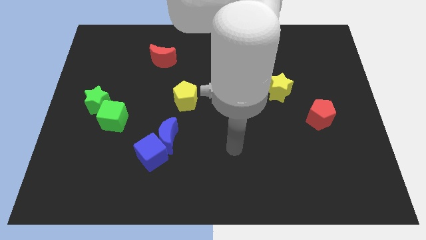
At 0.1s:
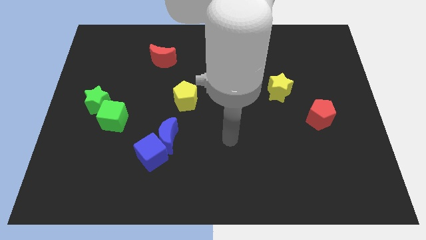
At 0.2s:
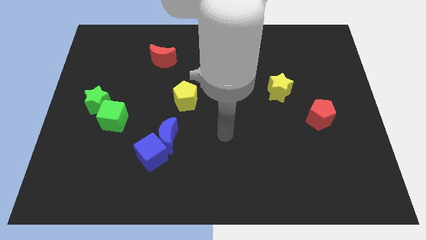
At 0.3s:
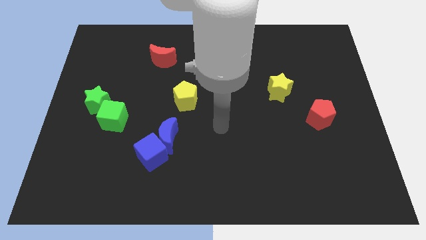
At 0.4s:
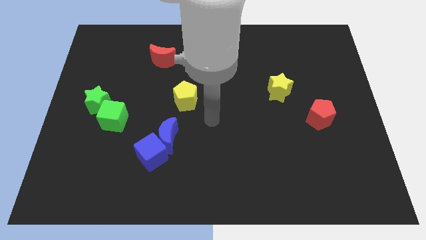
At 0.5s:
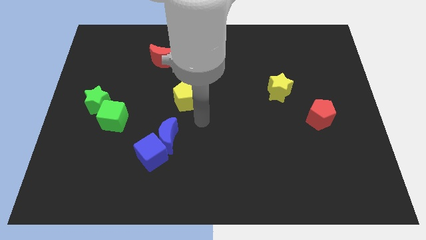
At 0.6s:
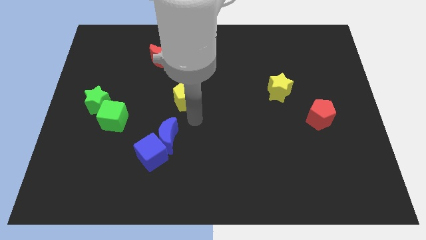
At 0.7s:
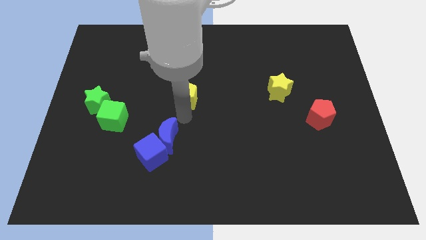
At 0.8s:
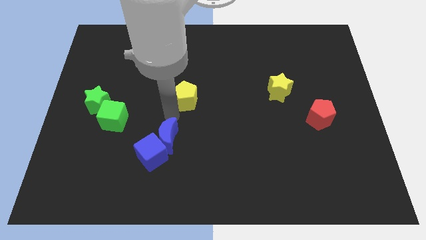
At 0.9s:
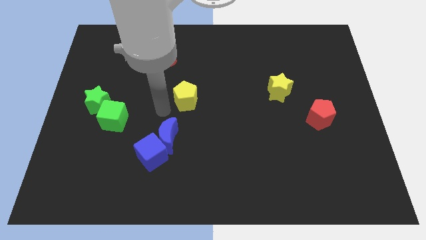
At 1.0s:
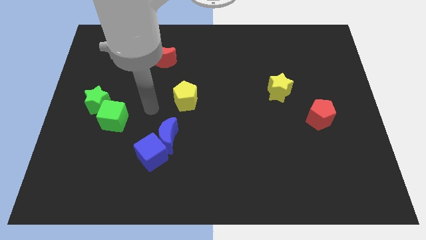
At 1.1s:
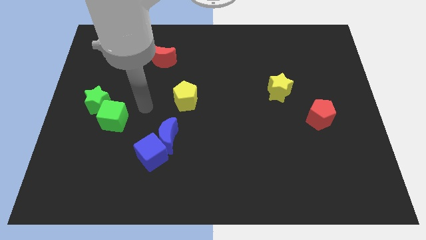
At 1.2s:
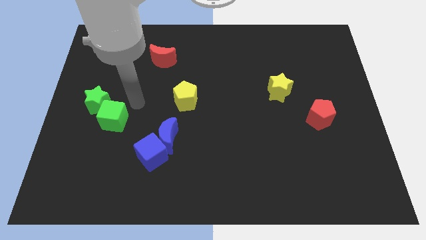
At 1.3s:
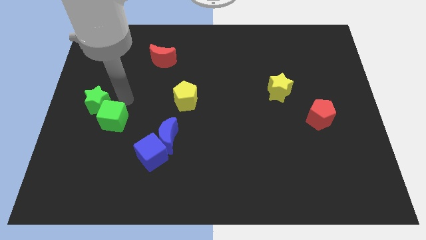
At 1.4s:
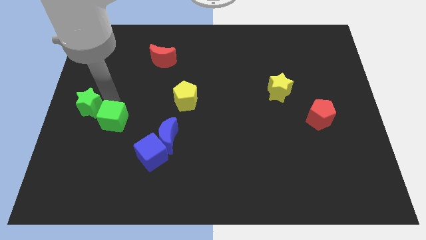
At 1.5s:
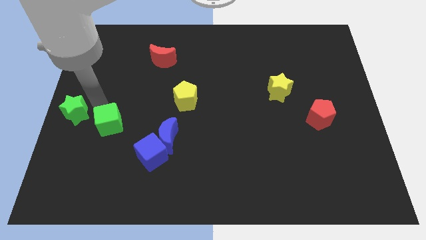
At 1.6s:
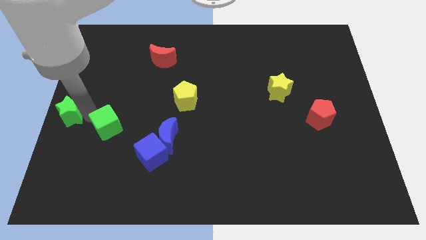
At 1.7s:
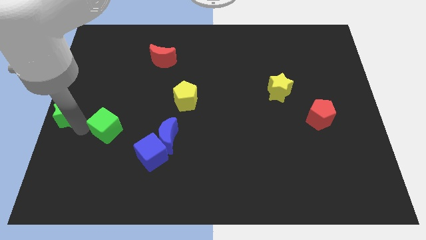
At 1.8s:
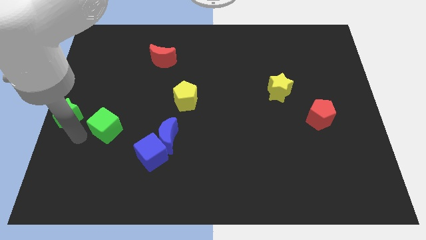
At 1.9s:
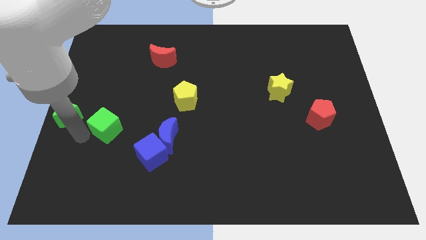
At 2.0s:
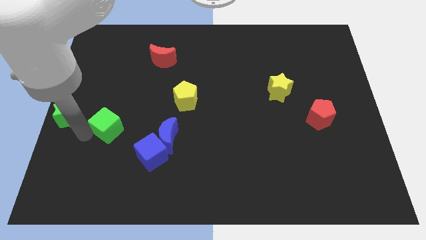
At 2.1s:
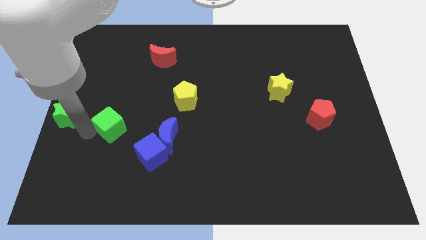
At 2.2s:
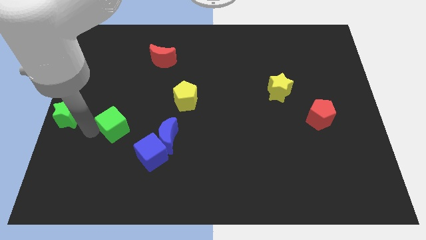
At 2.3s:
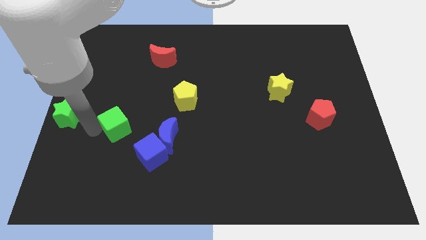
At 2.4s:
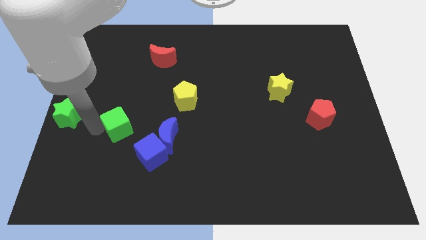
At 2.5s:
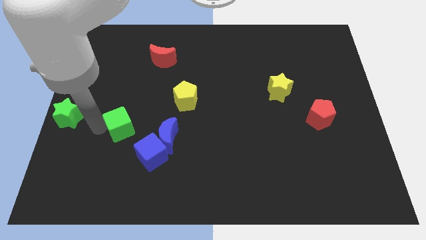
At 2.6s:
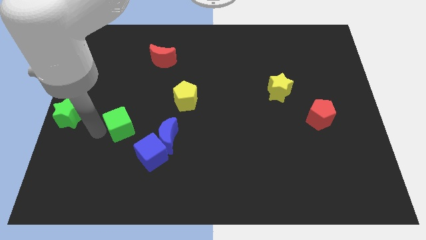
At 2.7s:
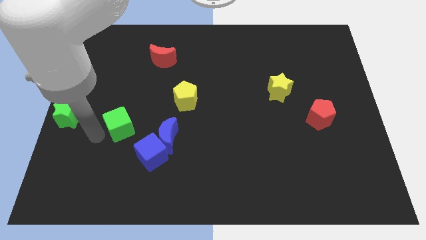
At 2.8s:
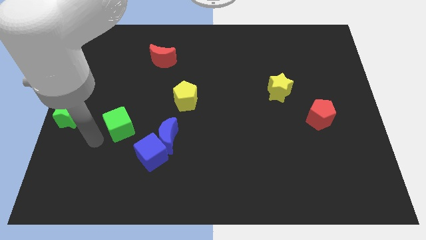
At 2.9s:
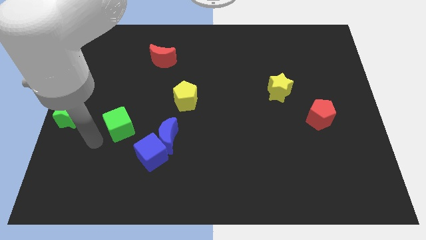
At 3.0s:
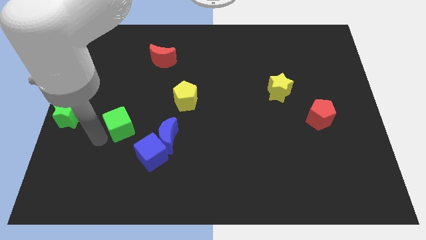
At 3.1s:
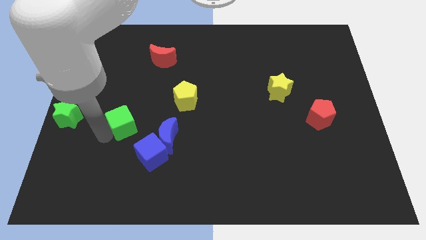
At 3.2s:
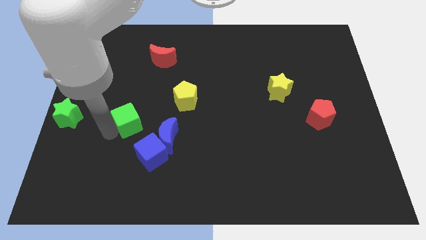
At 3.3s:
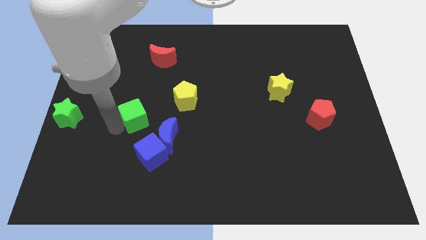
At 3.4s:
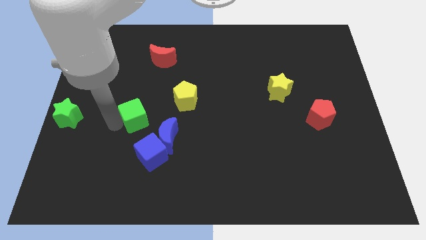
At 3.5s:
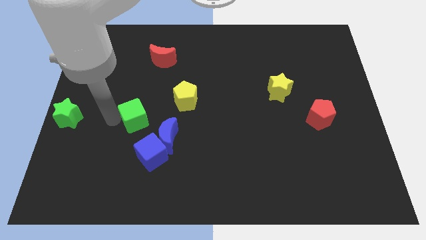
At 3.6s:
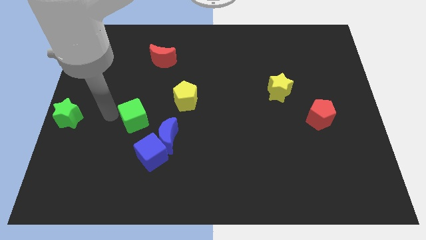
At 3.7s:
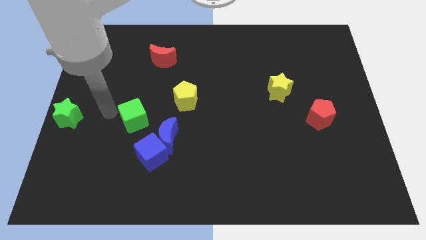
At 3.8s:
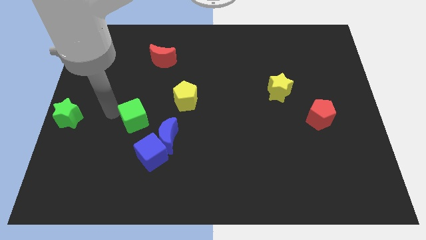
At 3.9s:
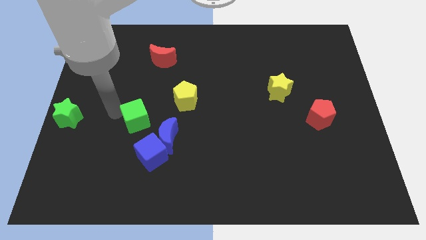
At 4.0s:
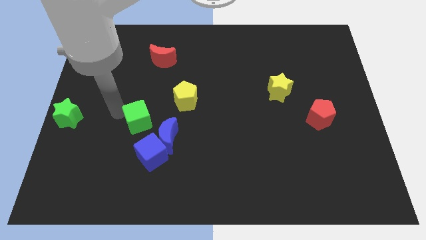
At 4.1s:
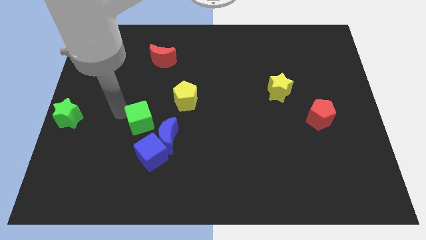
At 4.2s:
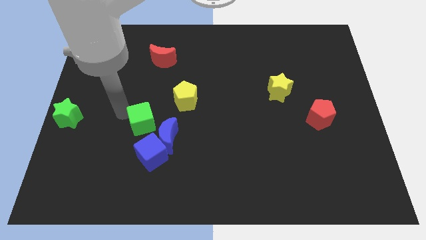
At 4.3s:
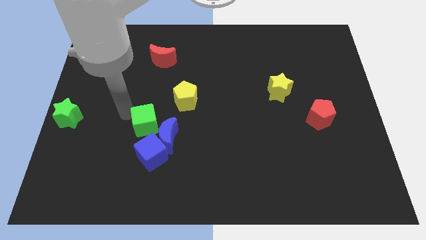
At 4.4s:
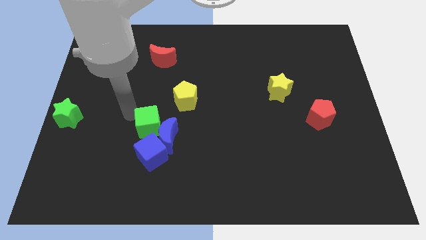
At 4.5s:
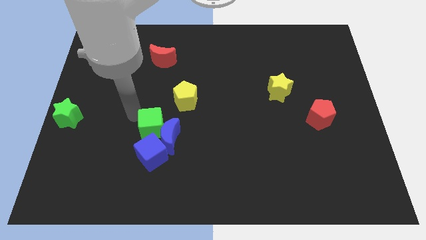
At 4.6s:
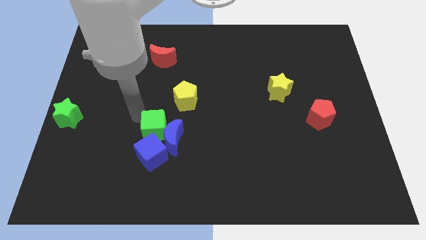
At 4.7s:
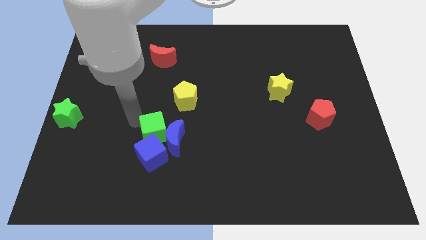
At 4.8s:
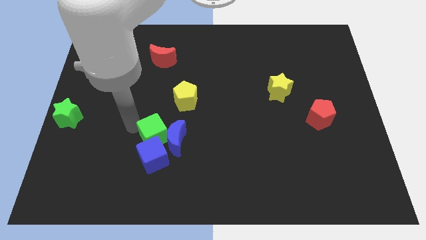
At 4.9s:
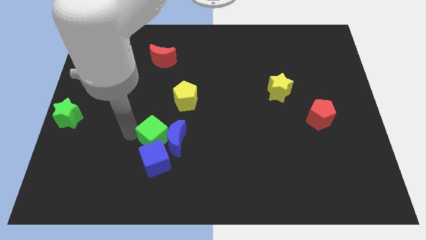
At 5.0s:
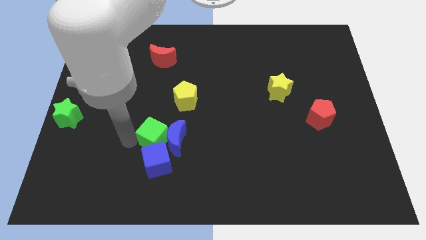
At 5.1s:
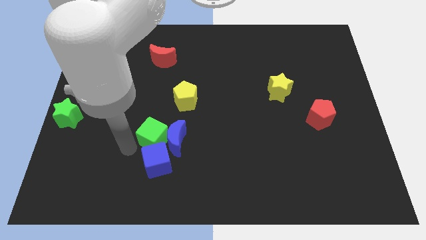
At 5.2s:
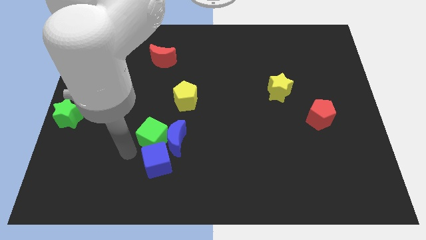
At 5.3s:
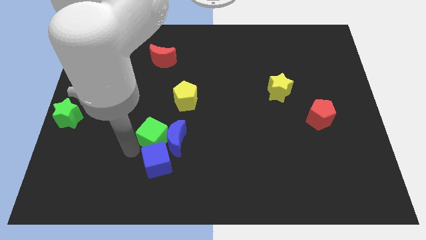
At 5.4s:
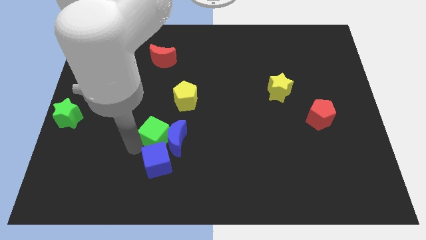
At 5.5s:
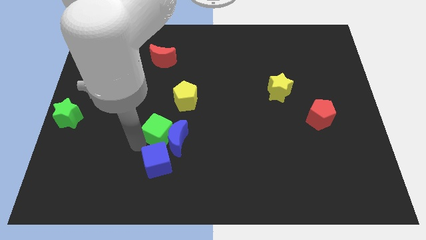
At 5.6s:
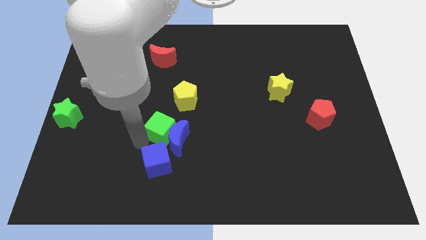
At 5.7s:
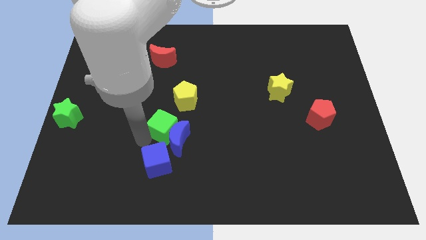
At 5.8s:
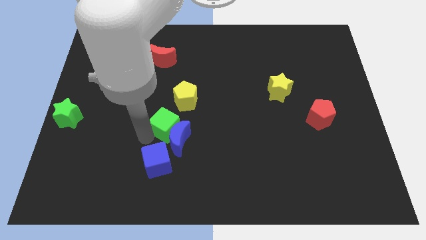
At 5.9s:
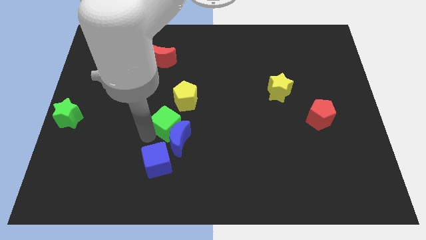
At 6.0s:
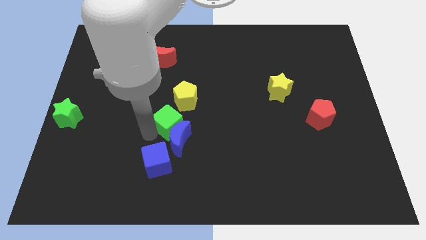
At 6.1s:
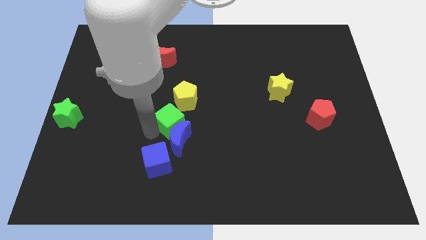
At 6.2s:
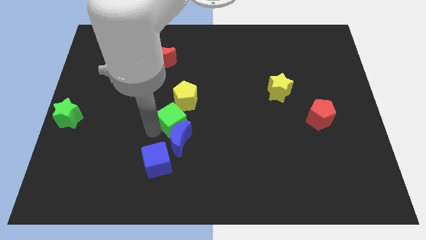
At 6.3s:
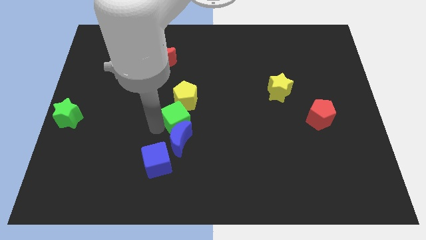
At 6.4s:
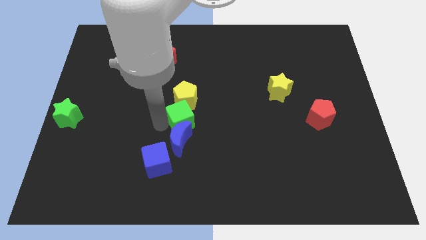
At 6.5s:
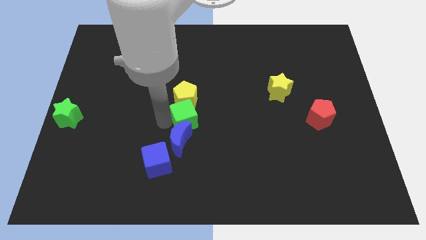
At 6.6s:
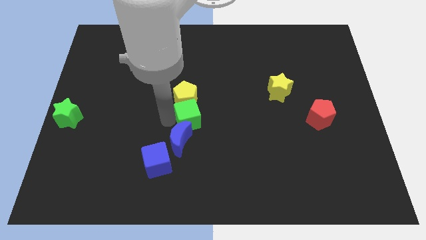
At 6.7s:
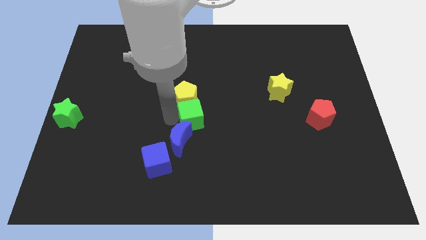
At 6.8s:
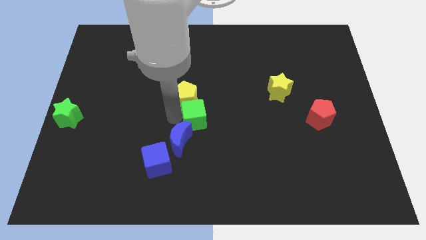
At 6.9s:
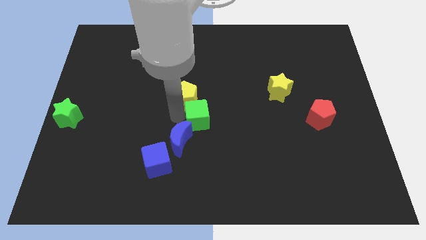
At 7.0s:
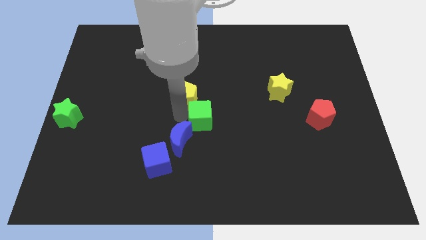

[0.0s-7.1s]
push the green cube right

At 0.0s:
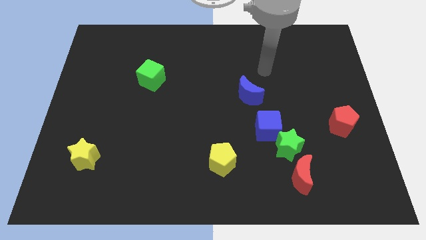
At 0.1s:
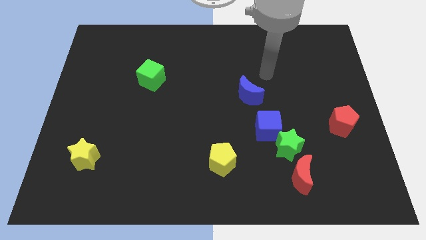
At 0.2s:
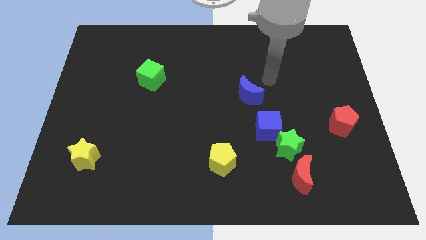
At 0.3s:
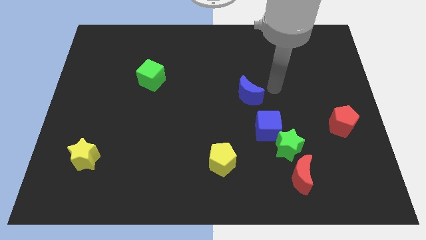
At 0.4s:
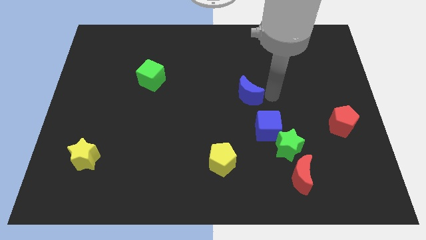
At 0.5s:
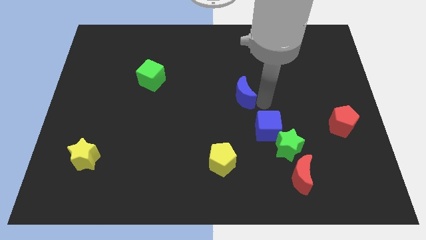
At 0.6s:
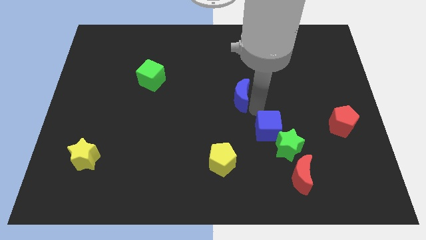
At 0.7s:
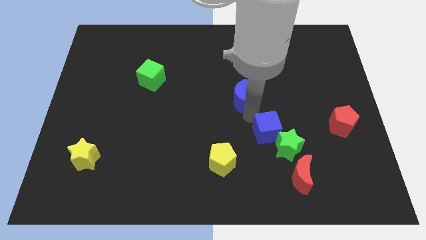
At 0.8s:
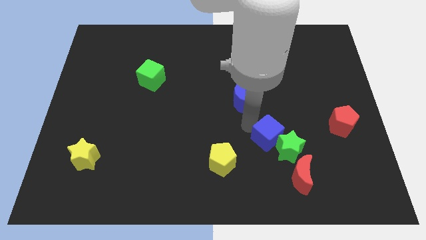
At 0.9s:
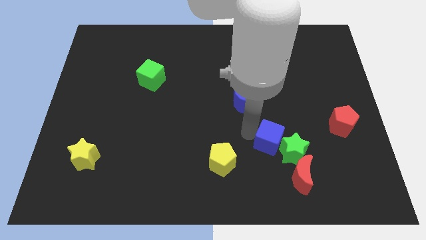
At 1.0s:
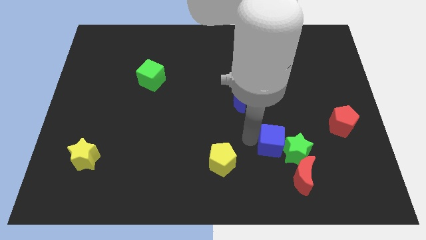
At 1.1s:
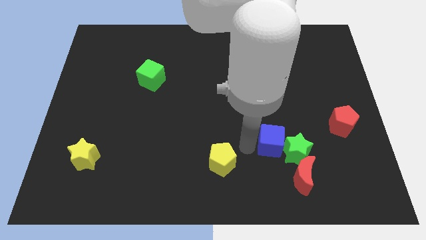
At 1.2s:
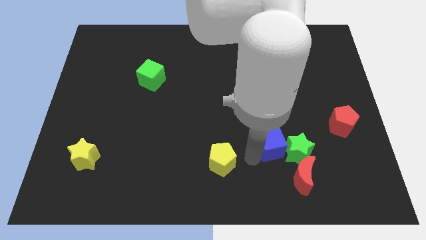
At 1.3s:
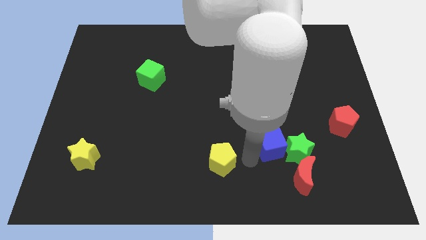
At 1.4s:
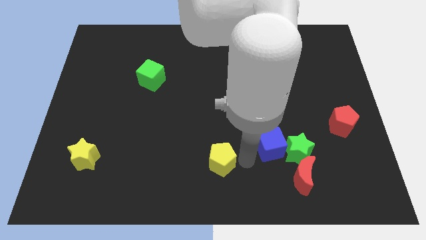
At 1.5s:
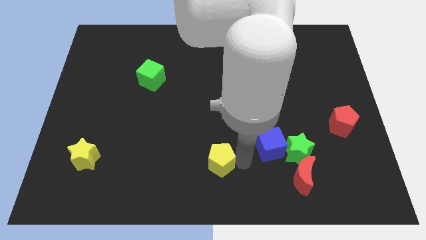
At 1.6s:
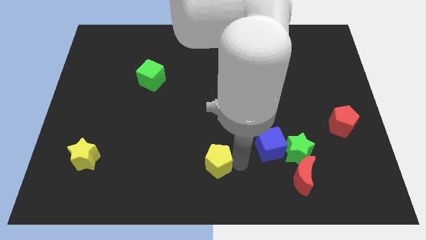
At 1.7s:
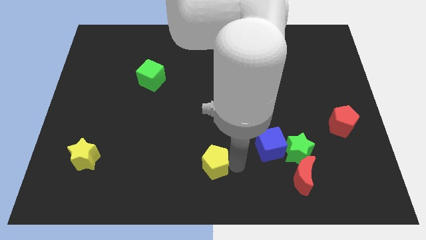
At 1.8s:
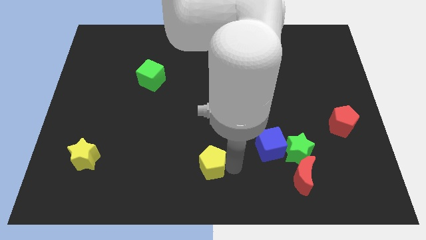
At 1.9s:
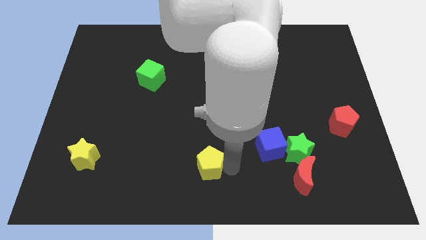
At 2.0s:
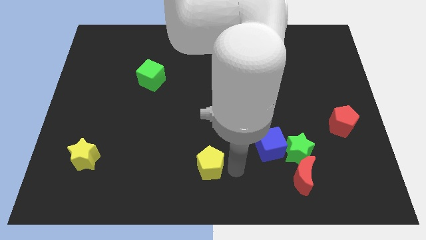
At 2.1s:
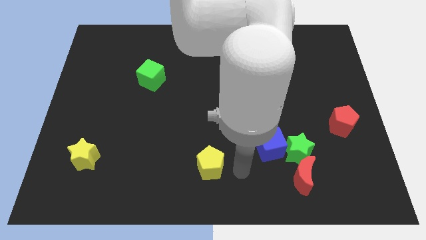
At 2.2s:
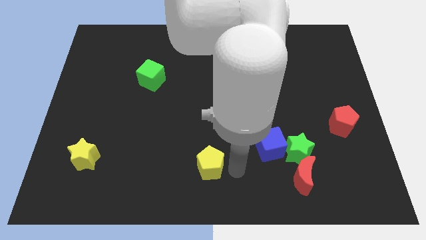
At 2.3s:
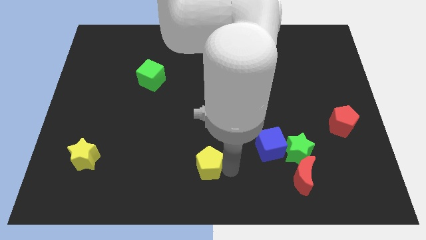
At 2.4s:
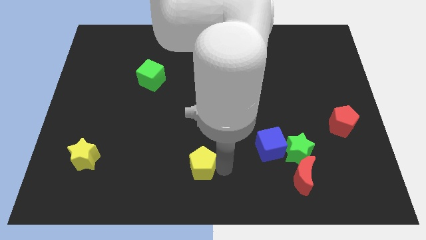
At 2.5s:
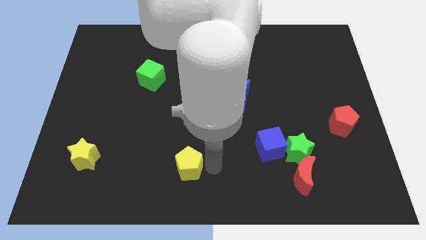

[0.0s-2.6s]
push the yellow pentagon to the left a bit
